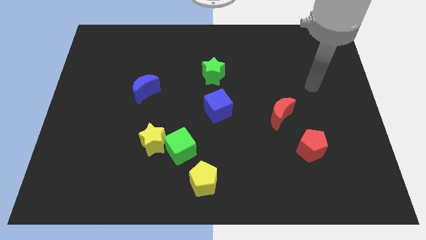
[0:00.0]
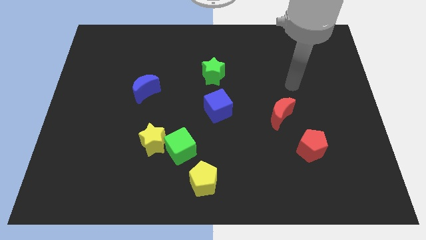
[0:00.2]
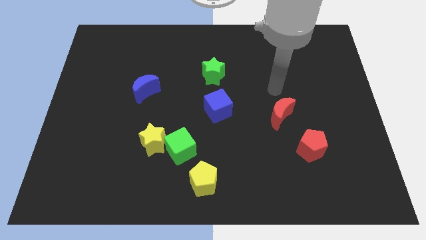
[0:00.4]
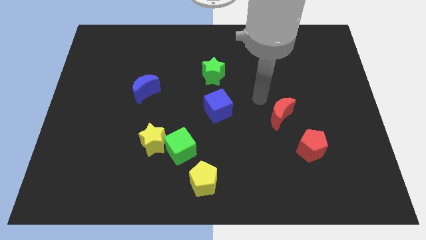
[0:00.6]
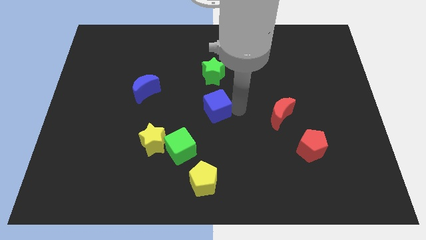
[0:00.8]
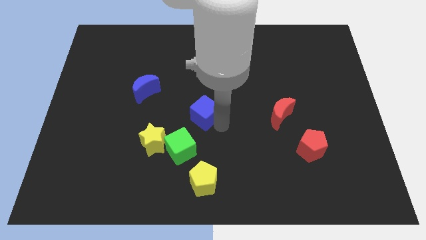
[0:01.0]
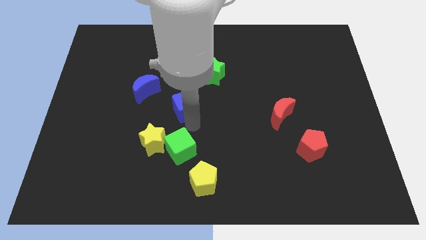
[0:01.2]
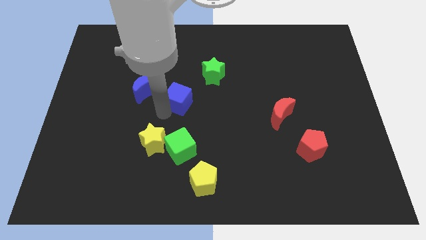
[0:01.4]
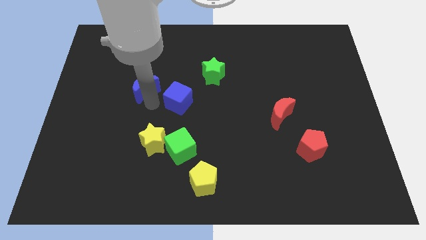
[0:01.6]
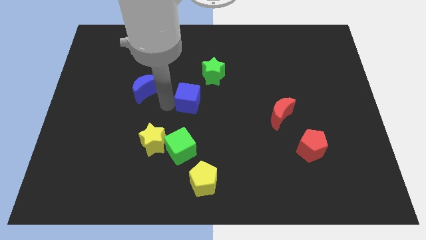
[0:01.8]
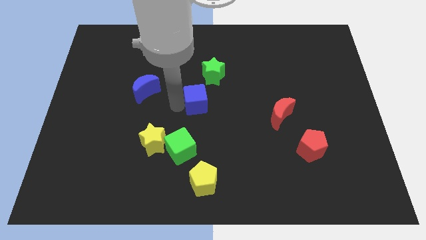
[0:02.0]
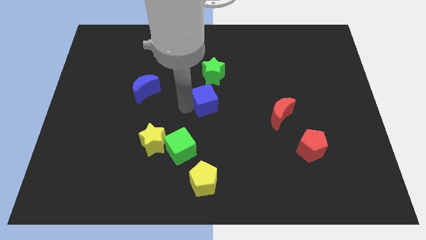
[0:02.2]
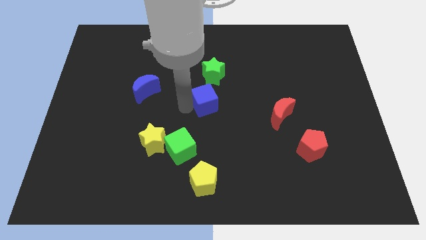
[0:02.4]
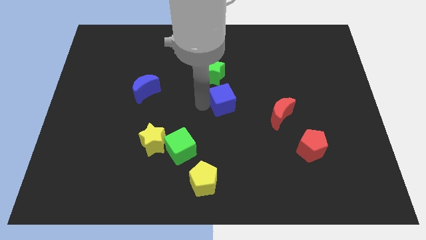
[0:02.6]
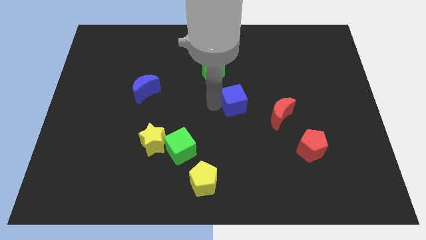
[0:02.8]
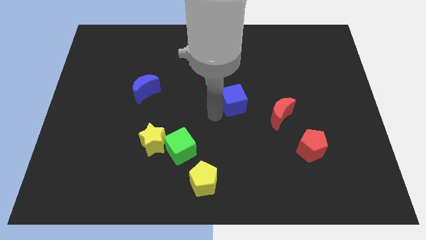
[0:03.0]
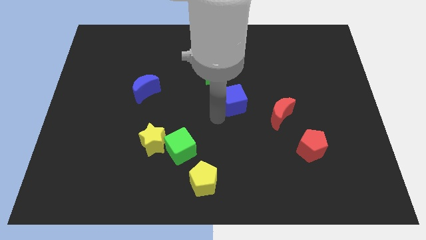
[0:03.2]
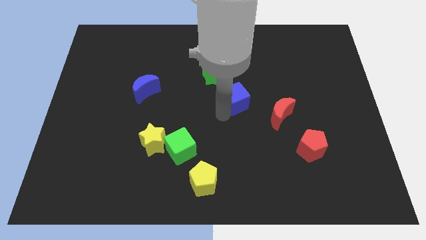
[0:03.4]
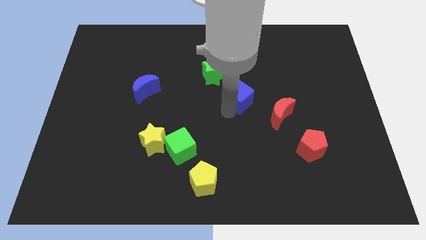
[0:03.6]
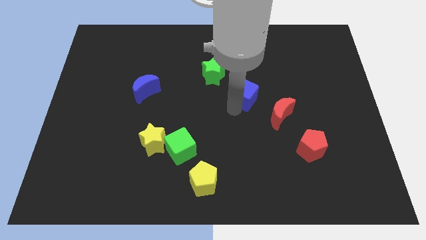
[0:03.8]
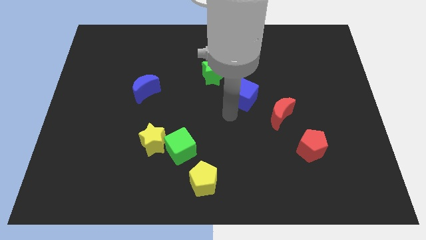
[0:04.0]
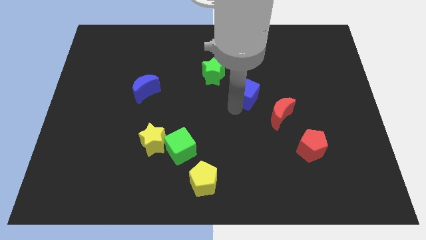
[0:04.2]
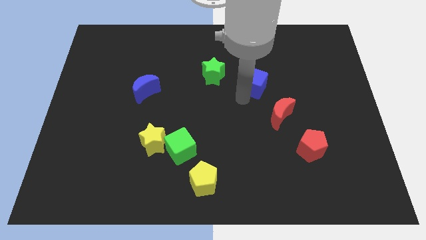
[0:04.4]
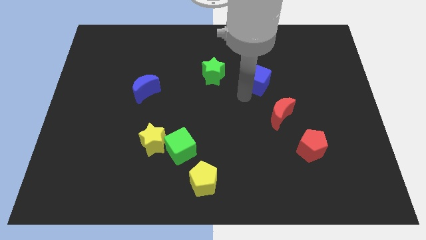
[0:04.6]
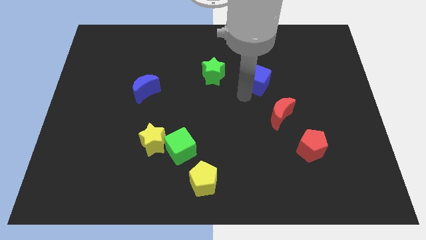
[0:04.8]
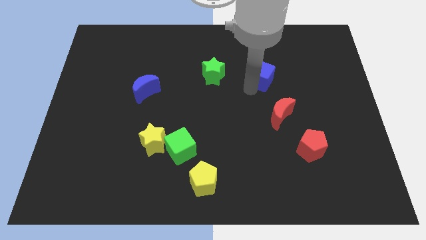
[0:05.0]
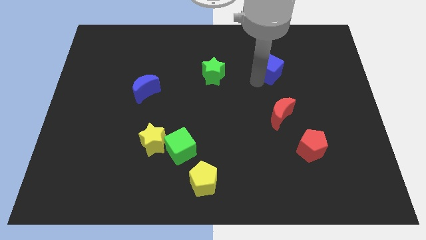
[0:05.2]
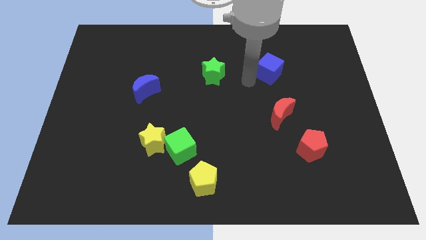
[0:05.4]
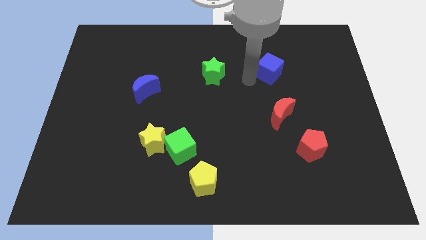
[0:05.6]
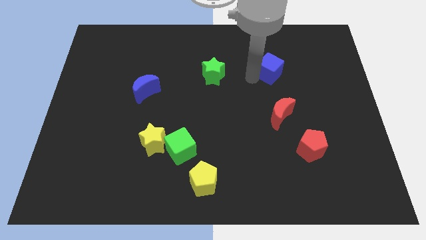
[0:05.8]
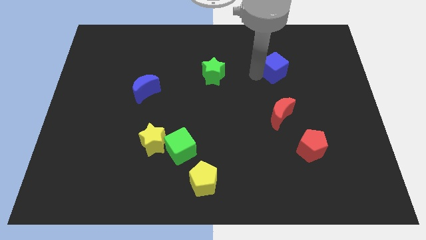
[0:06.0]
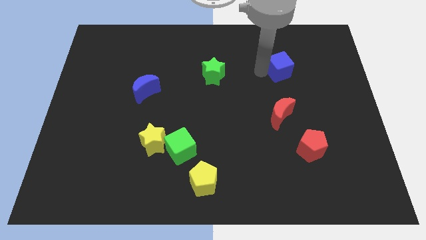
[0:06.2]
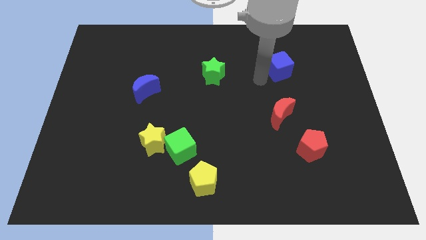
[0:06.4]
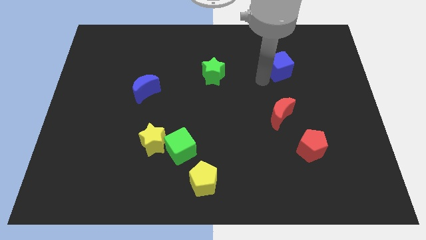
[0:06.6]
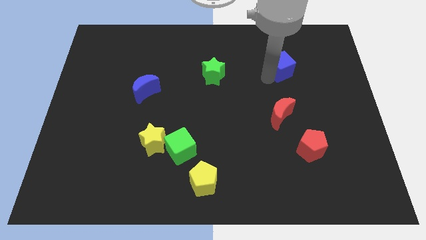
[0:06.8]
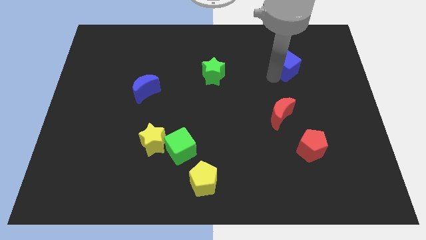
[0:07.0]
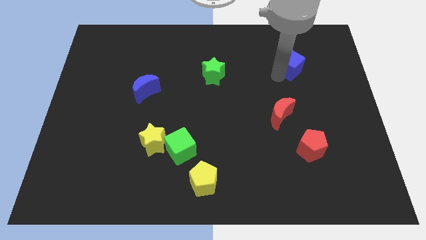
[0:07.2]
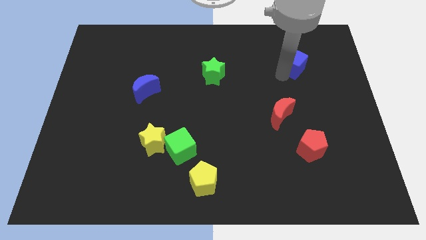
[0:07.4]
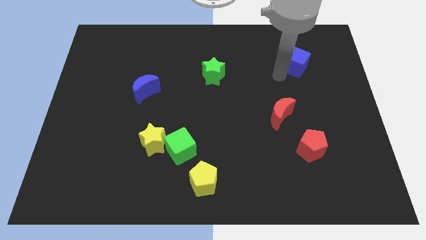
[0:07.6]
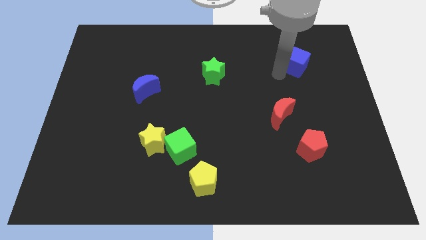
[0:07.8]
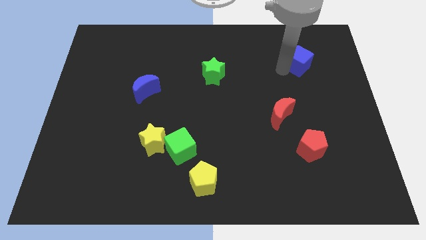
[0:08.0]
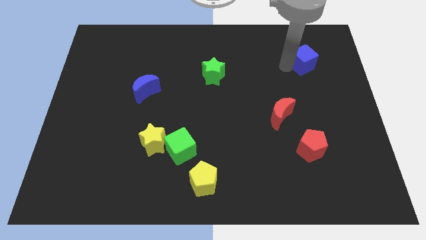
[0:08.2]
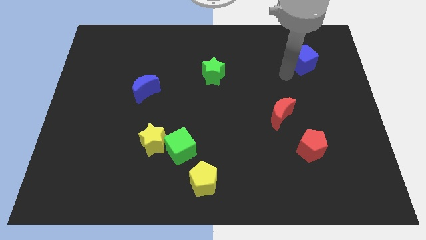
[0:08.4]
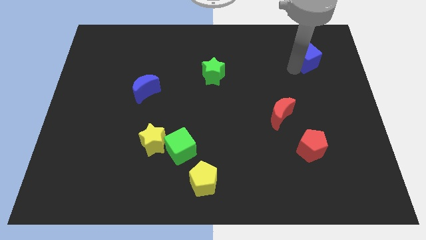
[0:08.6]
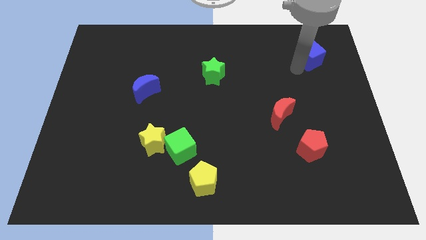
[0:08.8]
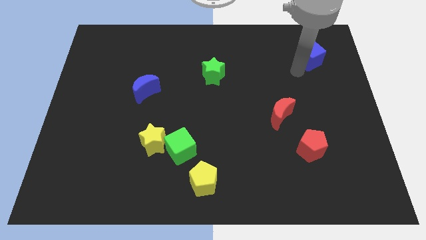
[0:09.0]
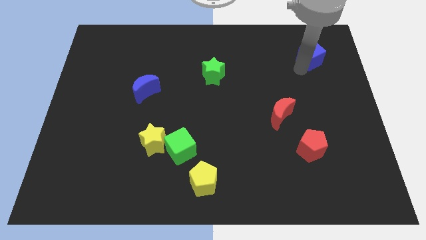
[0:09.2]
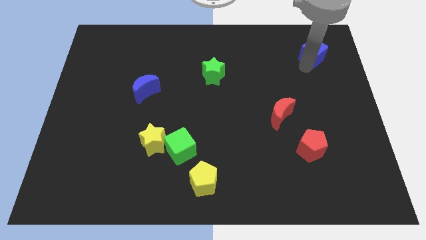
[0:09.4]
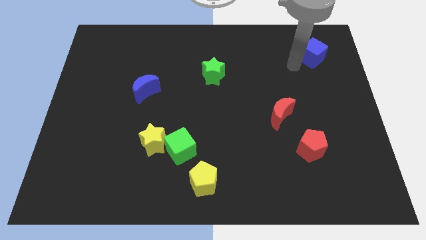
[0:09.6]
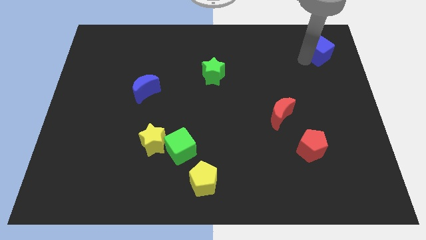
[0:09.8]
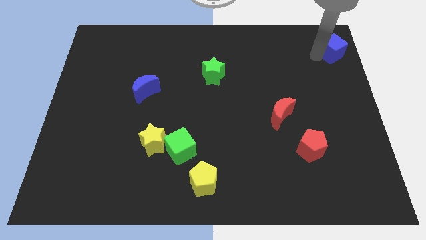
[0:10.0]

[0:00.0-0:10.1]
push the blue cube to the top right corner

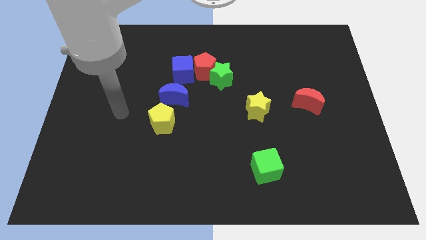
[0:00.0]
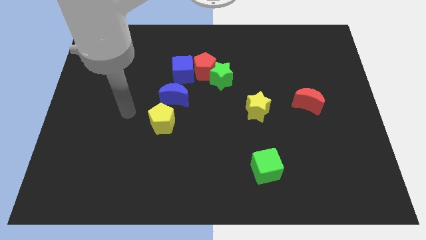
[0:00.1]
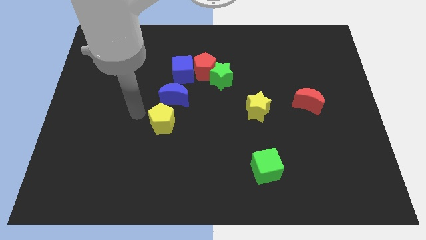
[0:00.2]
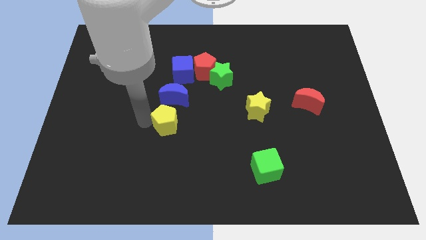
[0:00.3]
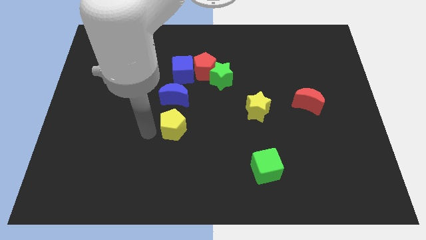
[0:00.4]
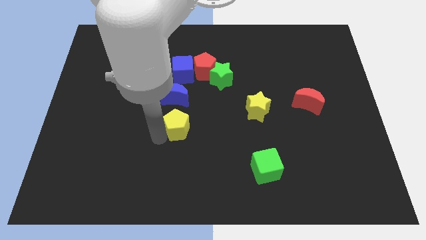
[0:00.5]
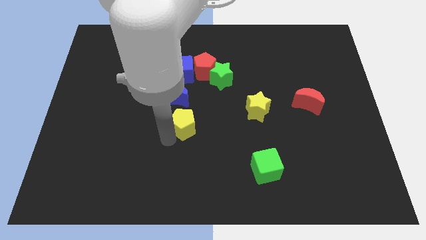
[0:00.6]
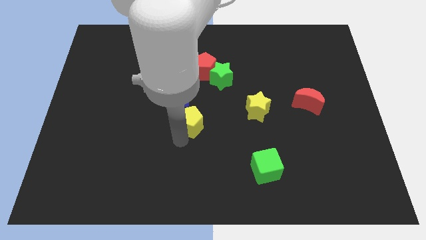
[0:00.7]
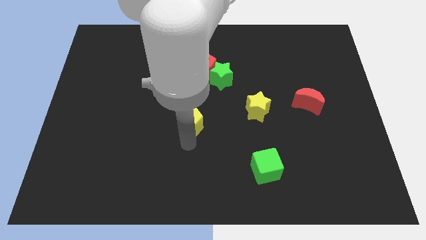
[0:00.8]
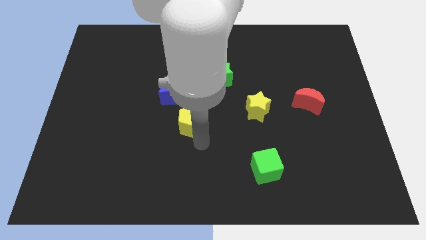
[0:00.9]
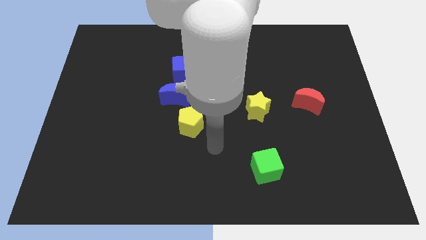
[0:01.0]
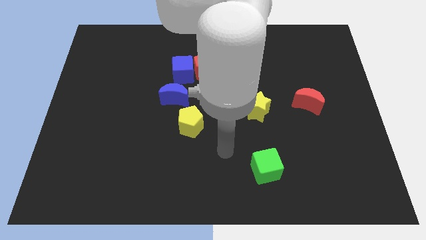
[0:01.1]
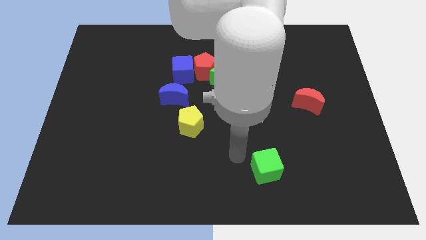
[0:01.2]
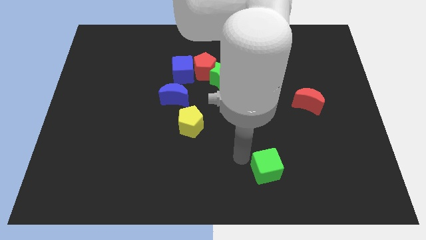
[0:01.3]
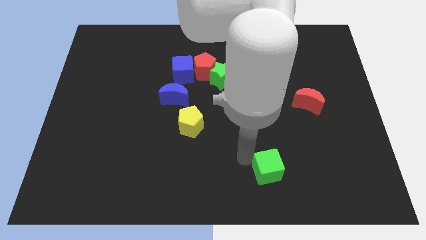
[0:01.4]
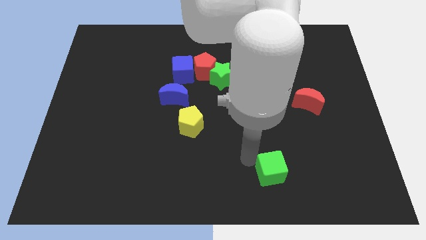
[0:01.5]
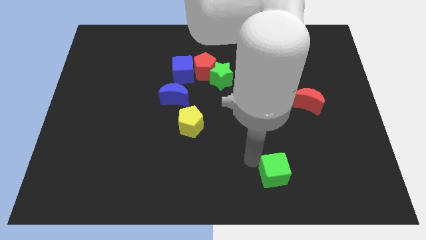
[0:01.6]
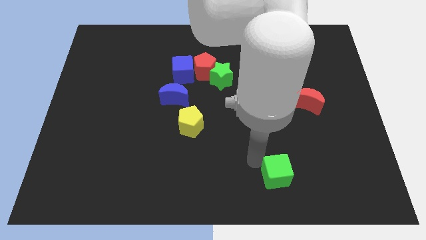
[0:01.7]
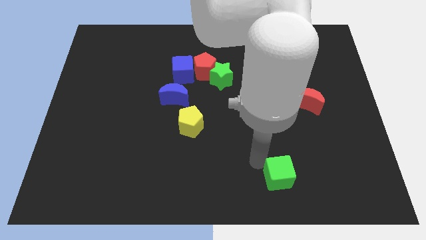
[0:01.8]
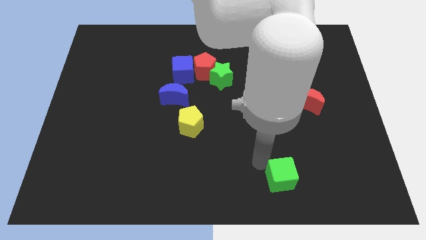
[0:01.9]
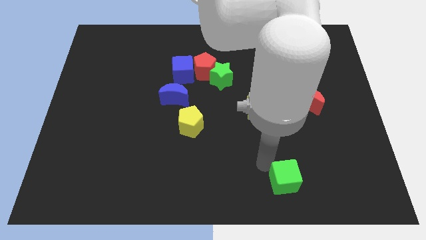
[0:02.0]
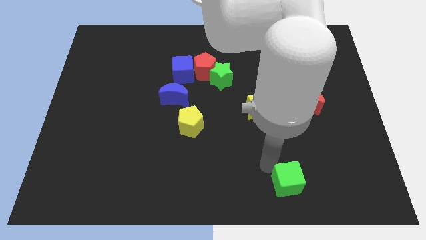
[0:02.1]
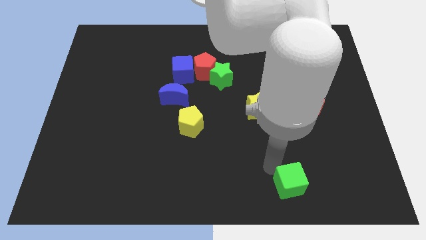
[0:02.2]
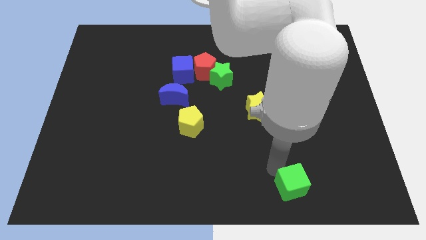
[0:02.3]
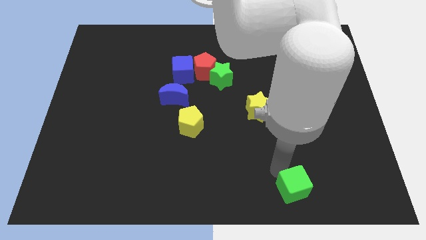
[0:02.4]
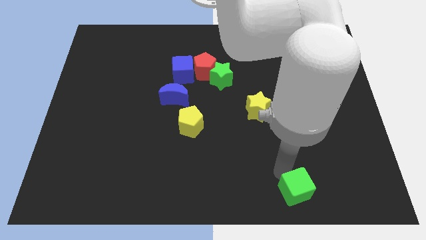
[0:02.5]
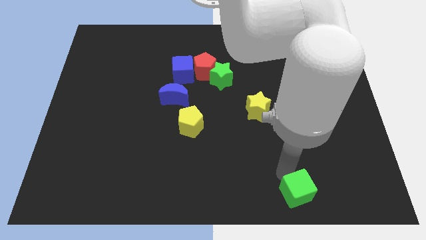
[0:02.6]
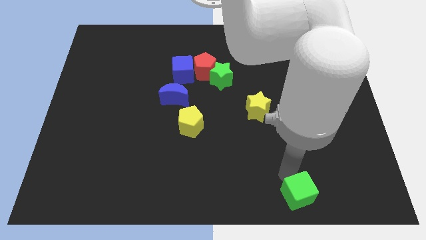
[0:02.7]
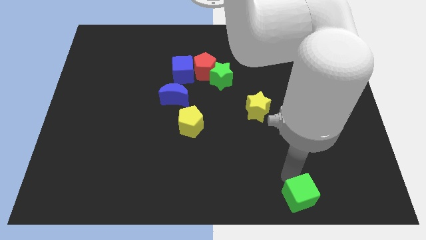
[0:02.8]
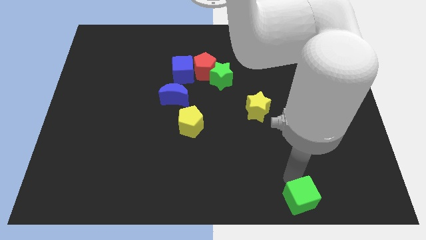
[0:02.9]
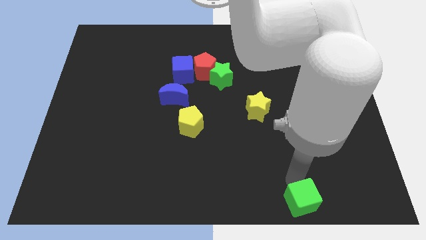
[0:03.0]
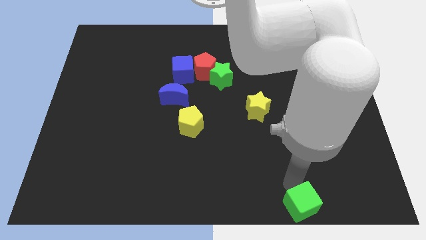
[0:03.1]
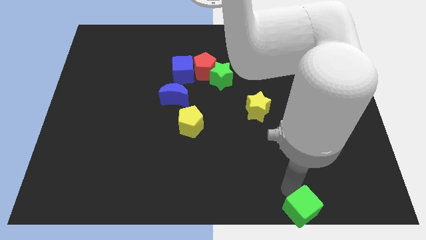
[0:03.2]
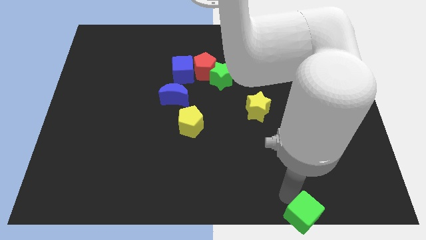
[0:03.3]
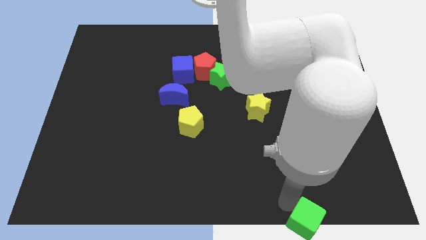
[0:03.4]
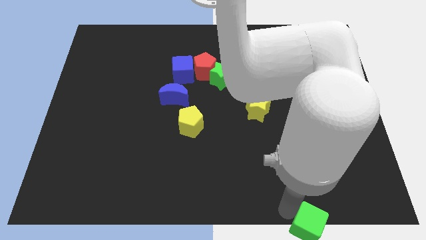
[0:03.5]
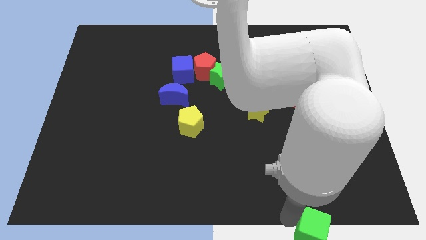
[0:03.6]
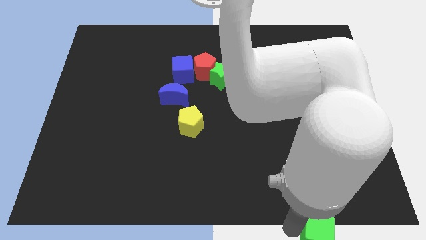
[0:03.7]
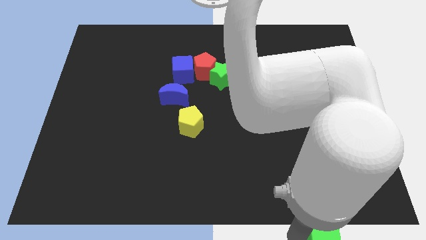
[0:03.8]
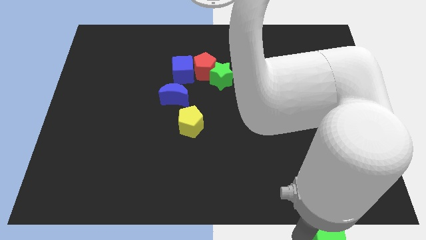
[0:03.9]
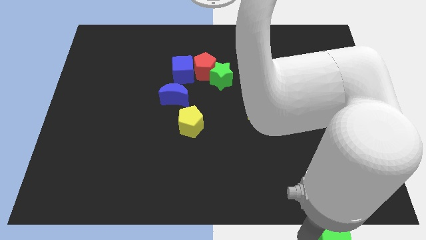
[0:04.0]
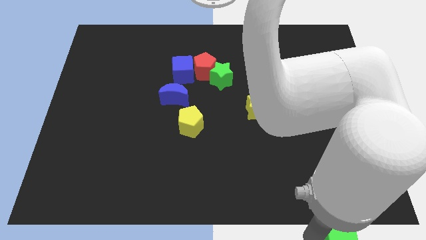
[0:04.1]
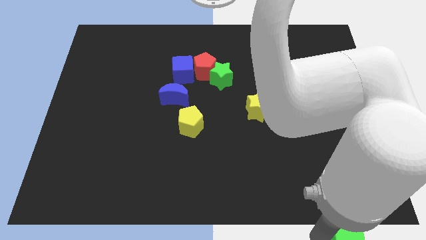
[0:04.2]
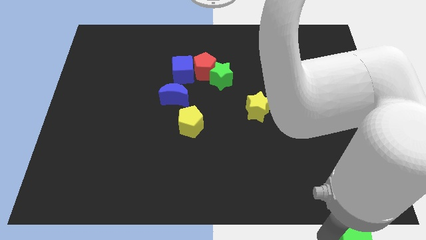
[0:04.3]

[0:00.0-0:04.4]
push the green cube to the bottom right of the board
